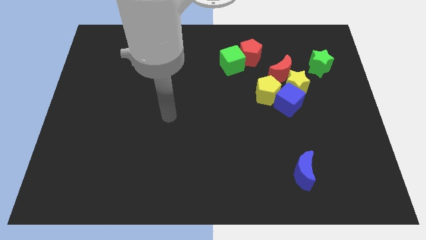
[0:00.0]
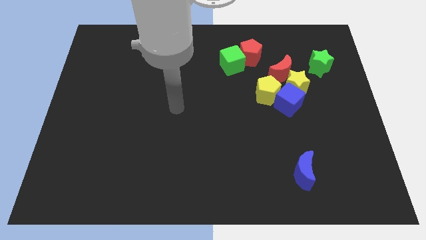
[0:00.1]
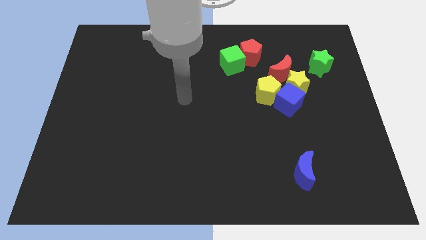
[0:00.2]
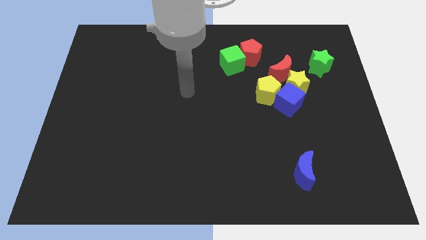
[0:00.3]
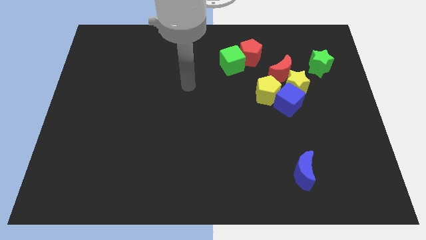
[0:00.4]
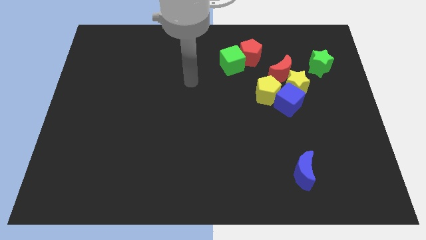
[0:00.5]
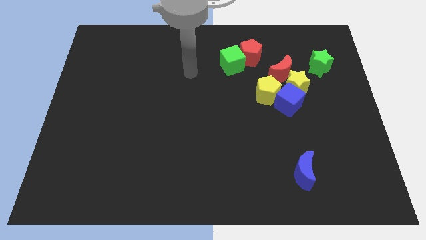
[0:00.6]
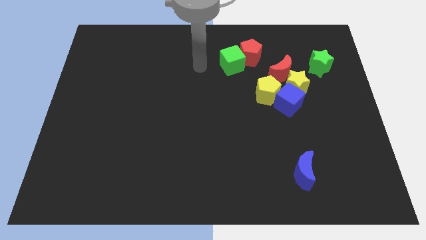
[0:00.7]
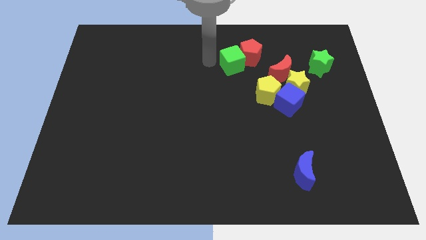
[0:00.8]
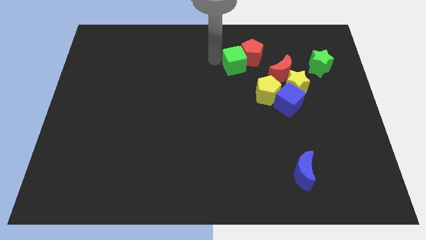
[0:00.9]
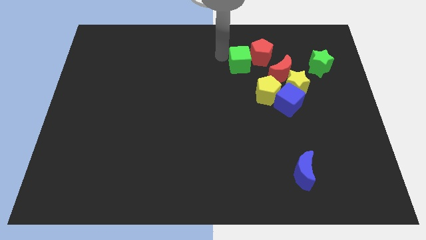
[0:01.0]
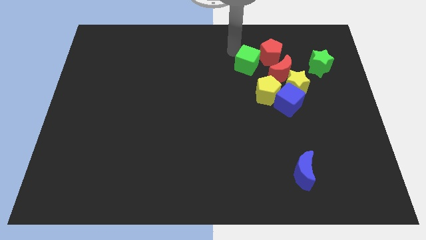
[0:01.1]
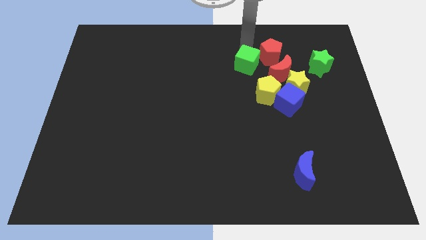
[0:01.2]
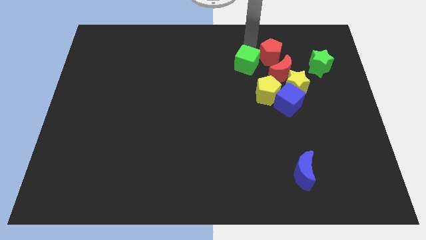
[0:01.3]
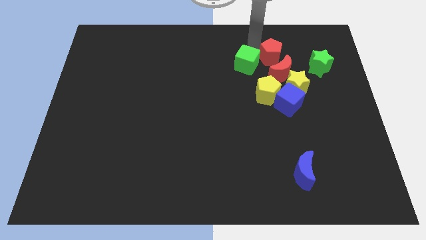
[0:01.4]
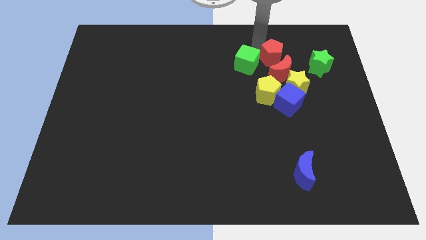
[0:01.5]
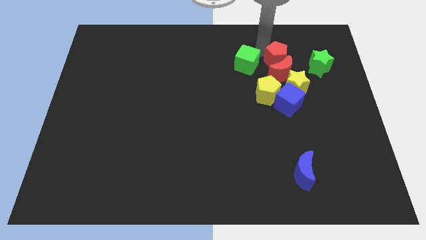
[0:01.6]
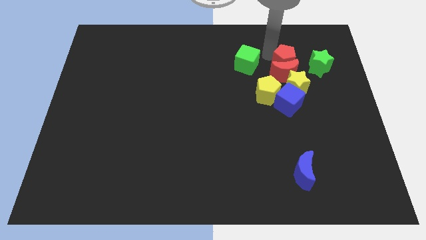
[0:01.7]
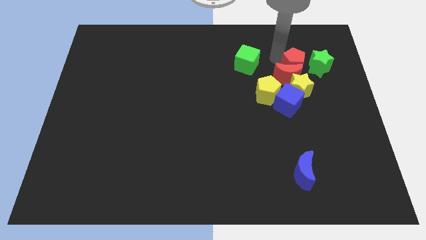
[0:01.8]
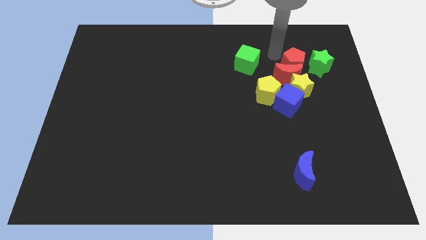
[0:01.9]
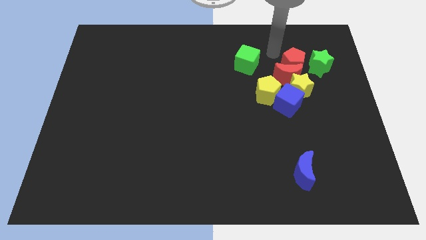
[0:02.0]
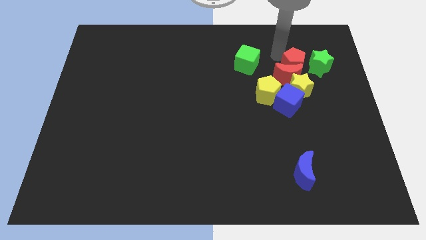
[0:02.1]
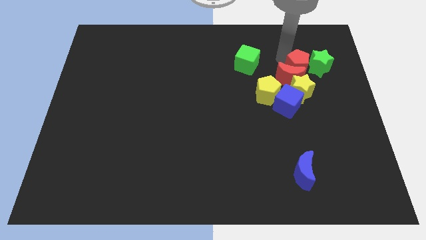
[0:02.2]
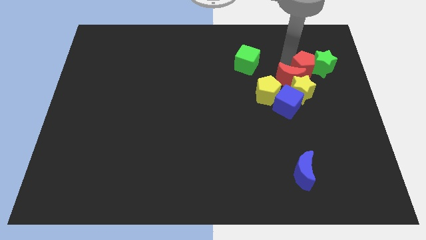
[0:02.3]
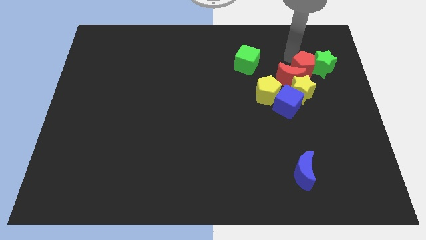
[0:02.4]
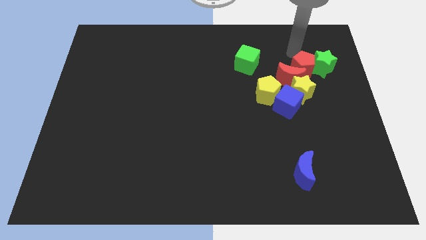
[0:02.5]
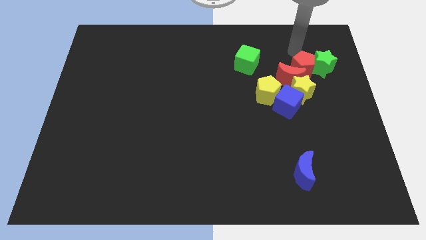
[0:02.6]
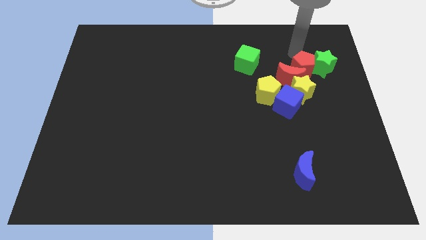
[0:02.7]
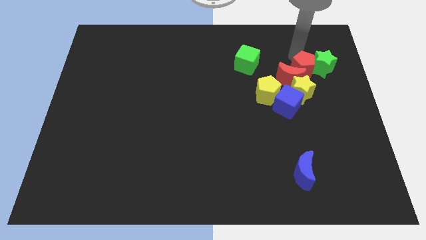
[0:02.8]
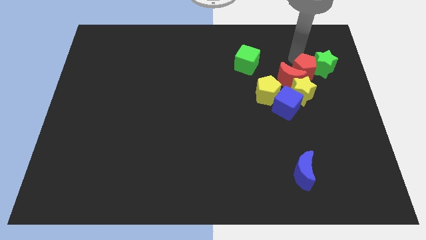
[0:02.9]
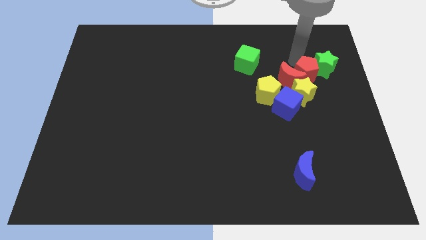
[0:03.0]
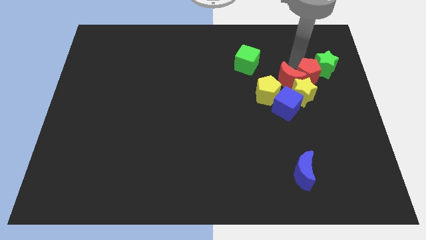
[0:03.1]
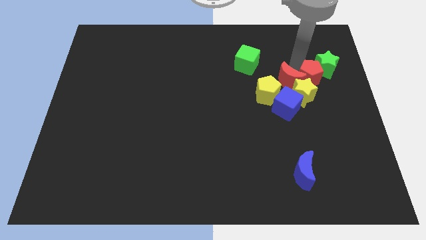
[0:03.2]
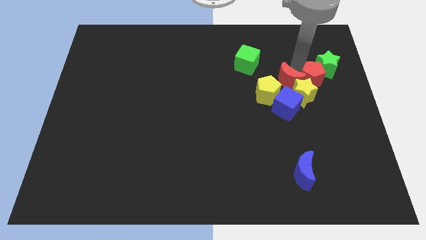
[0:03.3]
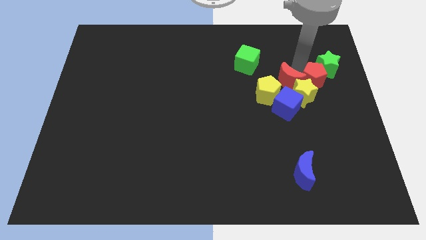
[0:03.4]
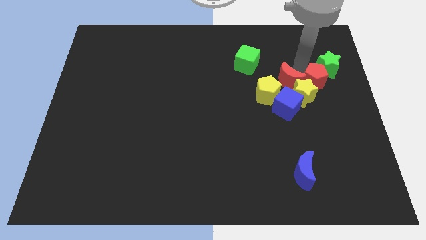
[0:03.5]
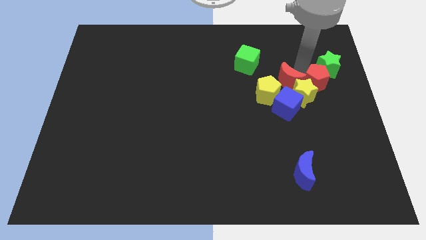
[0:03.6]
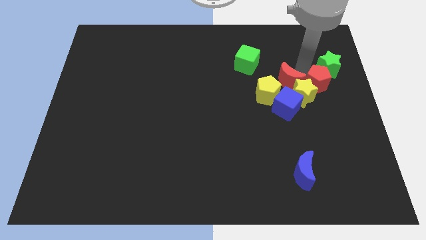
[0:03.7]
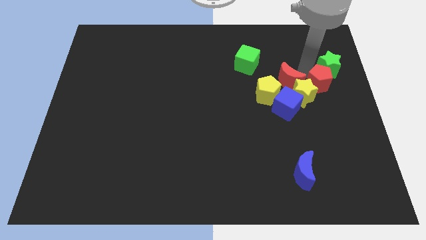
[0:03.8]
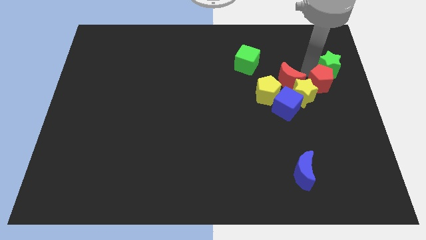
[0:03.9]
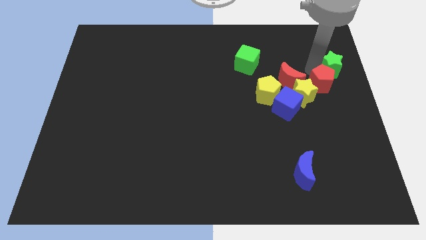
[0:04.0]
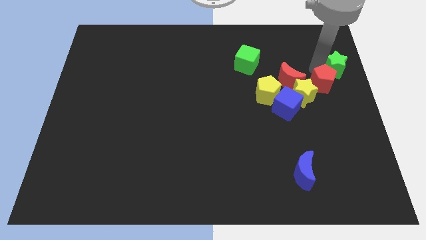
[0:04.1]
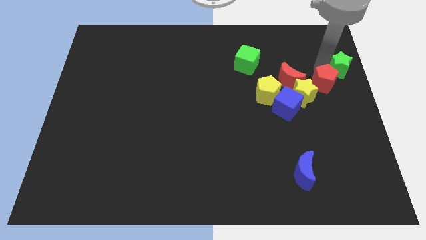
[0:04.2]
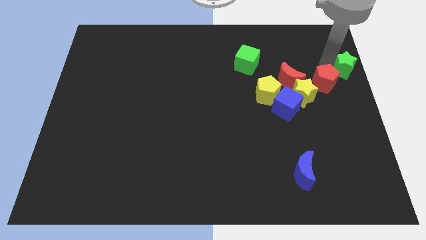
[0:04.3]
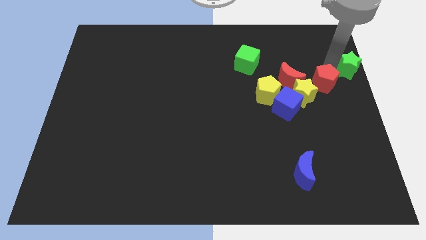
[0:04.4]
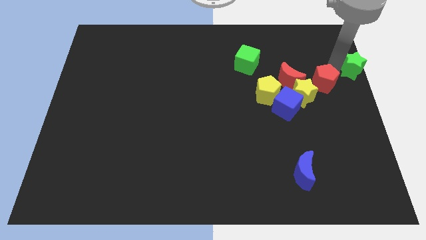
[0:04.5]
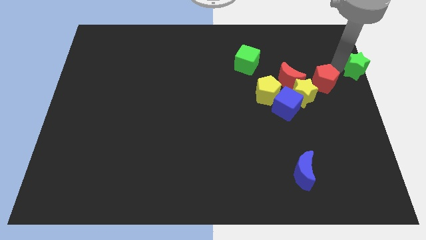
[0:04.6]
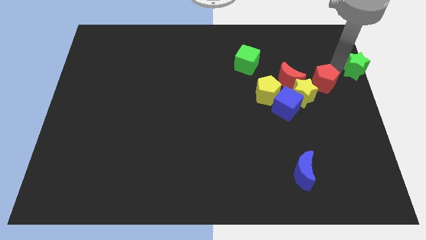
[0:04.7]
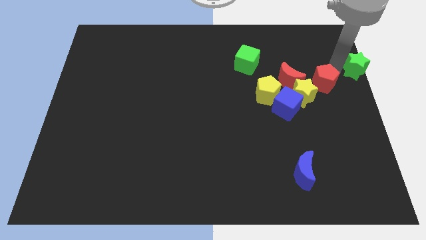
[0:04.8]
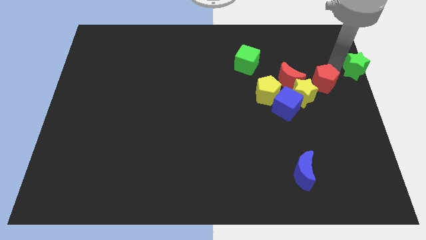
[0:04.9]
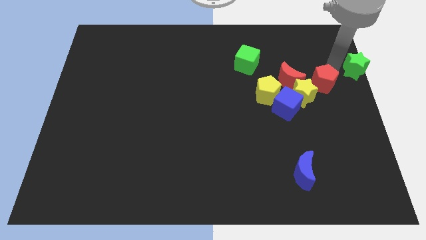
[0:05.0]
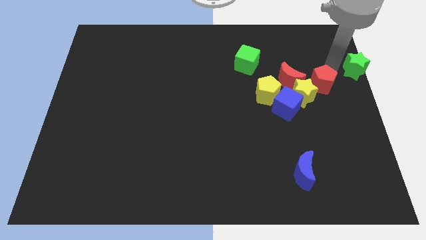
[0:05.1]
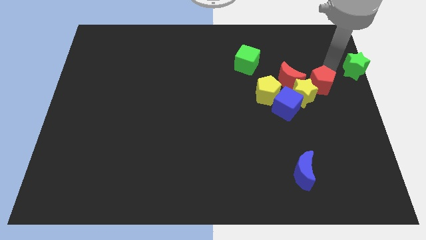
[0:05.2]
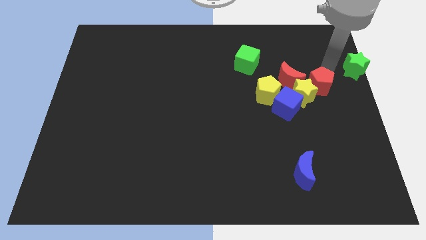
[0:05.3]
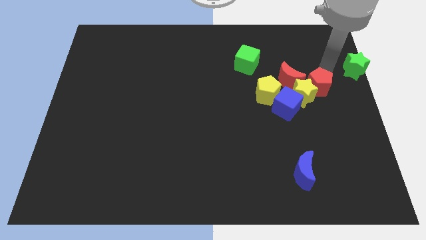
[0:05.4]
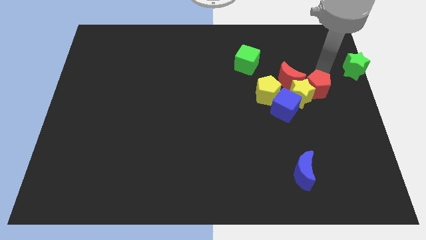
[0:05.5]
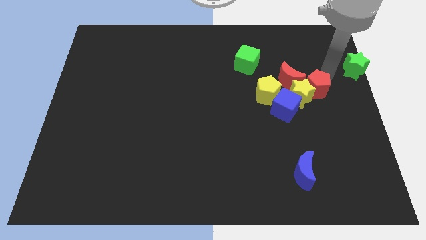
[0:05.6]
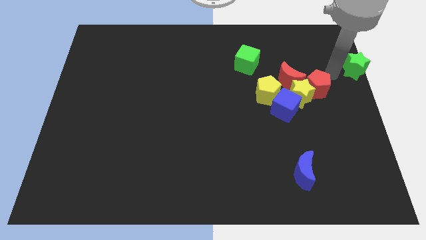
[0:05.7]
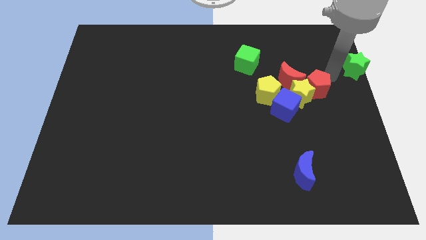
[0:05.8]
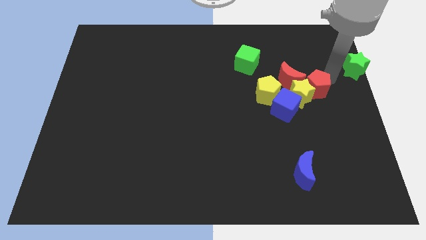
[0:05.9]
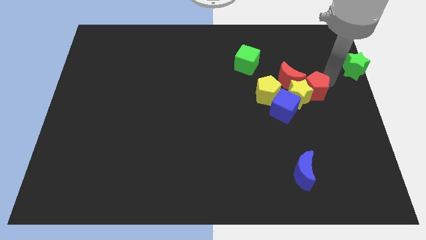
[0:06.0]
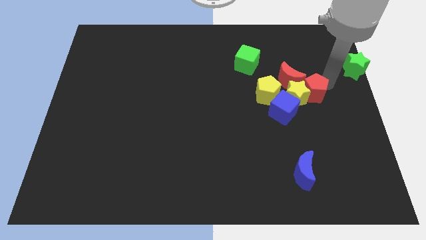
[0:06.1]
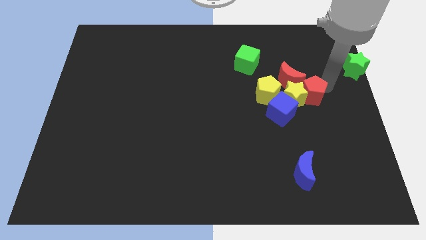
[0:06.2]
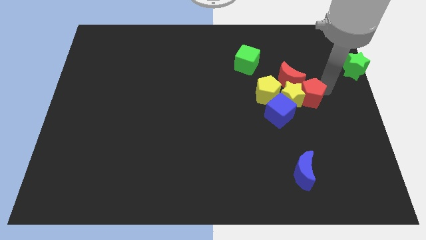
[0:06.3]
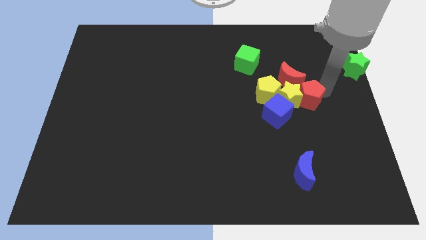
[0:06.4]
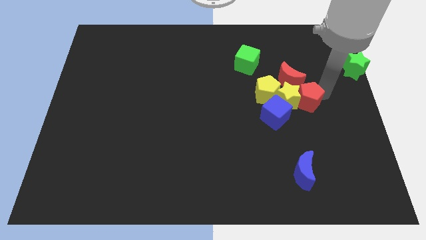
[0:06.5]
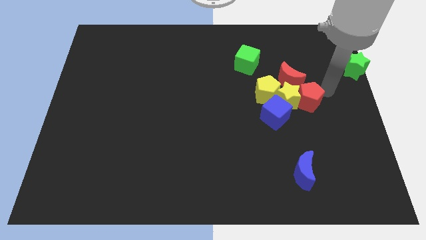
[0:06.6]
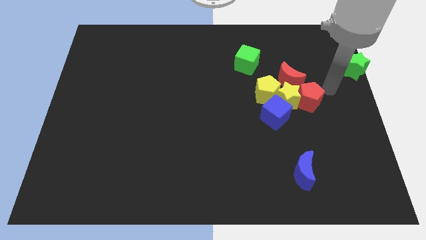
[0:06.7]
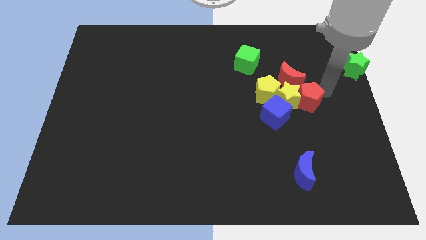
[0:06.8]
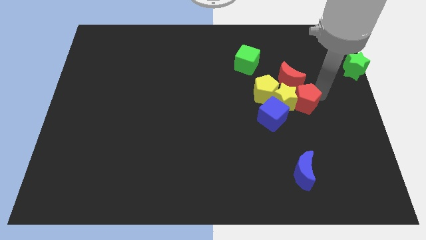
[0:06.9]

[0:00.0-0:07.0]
push the red pentagon to the bottom right side of the yellow pentagon

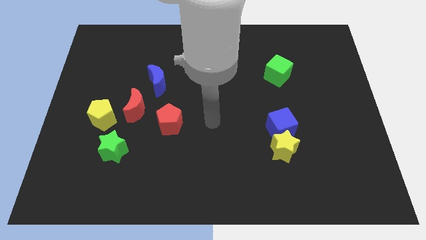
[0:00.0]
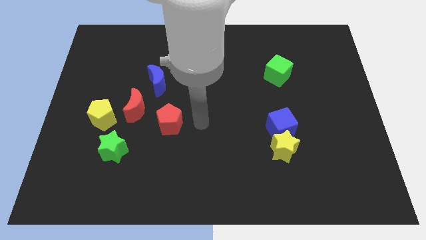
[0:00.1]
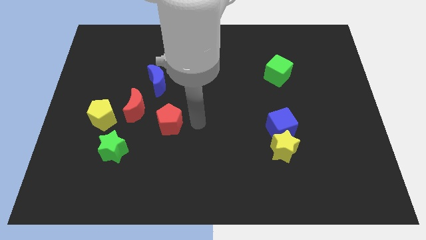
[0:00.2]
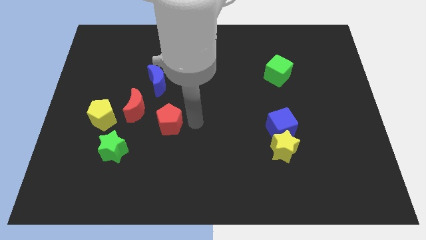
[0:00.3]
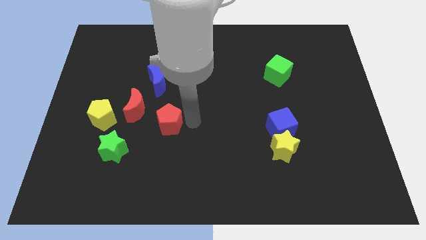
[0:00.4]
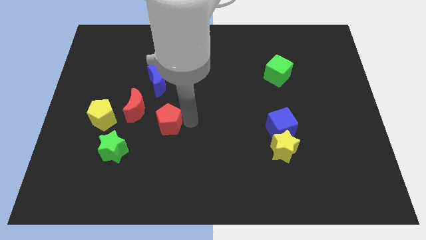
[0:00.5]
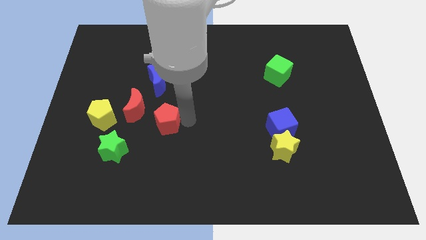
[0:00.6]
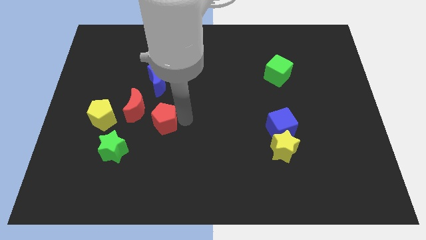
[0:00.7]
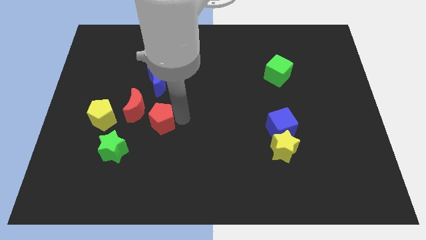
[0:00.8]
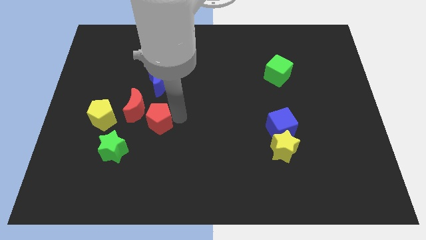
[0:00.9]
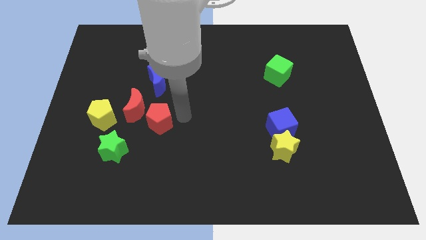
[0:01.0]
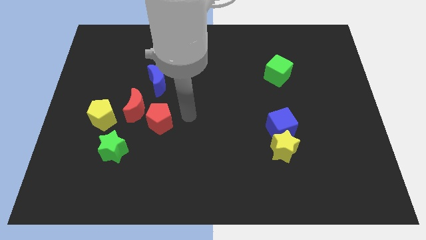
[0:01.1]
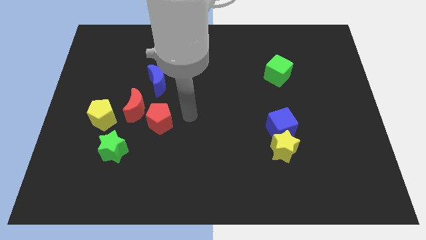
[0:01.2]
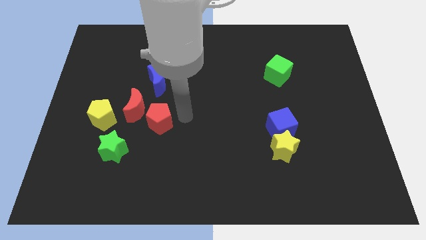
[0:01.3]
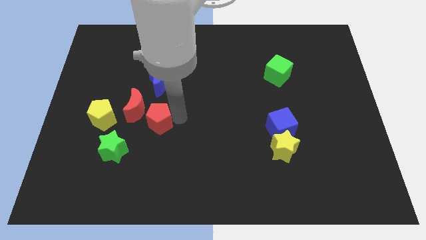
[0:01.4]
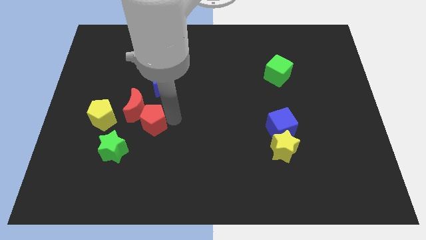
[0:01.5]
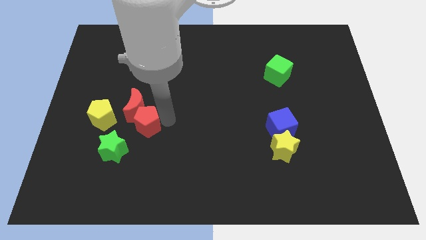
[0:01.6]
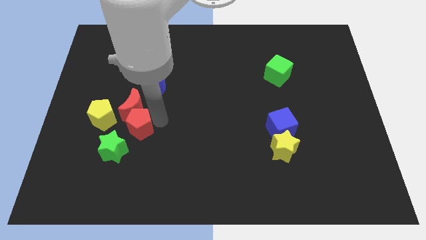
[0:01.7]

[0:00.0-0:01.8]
put the red pentagon to the bottom right of the yellow pentagon
